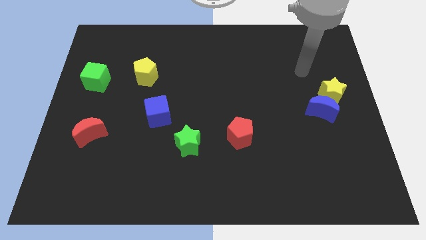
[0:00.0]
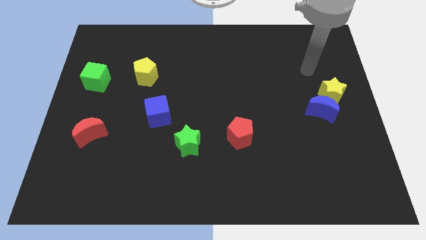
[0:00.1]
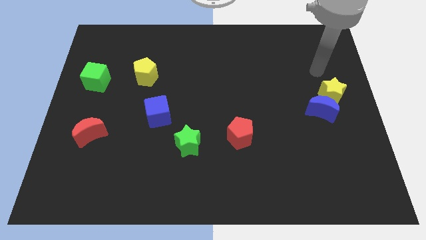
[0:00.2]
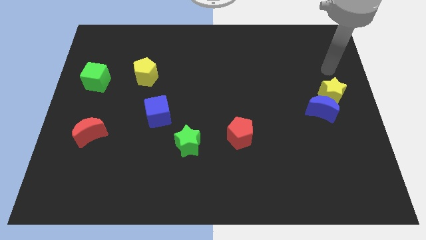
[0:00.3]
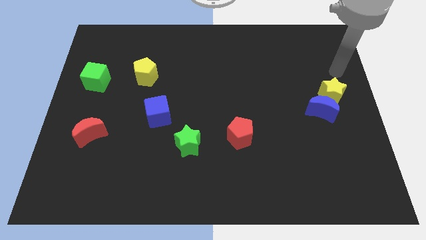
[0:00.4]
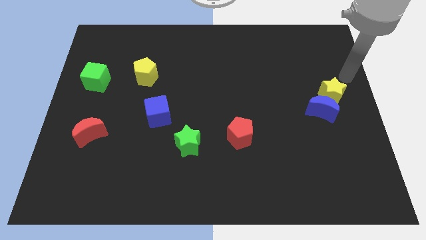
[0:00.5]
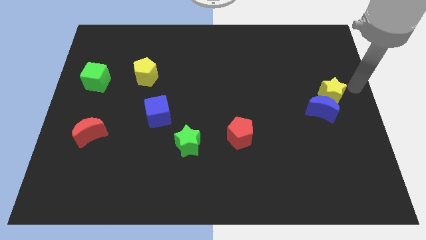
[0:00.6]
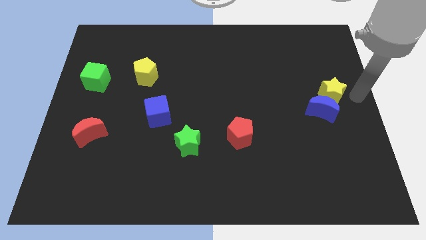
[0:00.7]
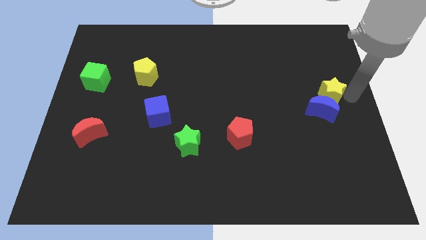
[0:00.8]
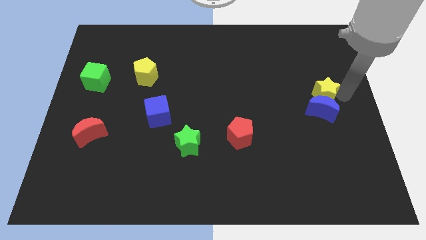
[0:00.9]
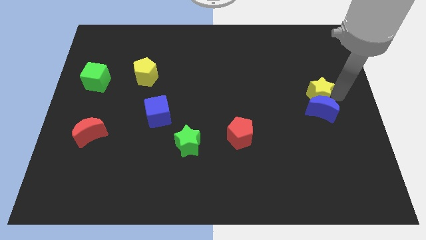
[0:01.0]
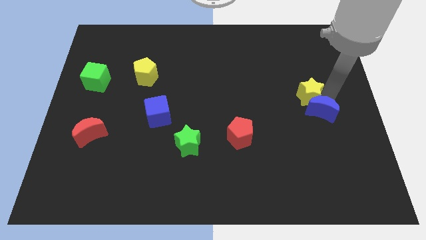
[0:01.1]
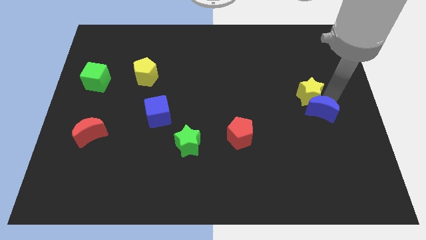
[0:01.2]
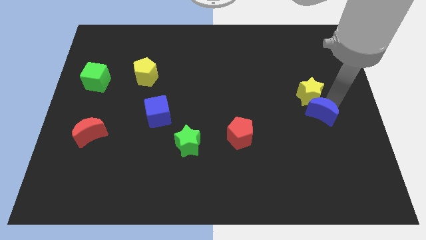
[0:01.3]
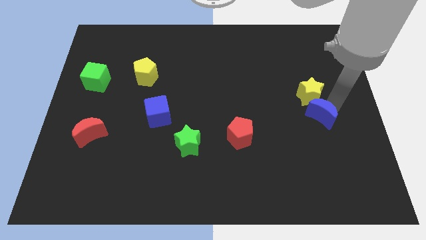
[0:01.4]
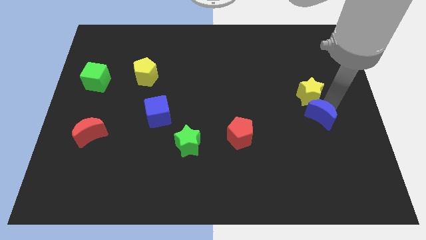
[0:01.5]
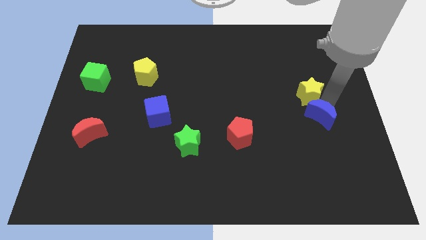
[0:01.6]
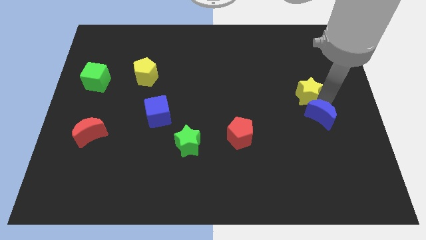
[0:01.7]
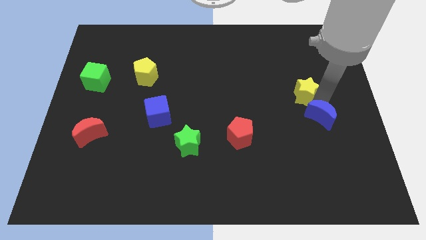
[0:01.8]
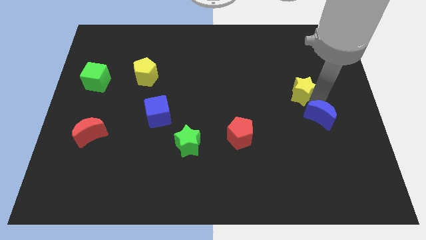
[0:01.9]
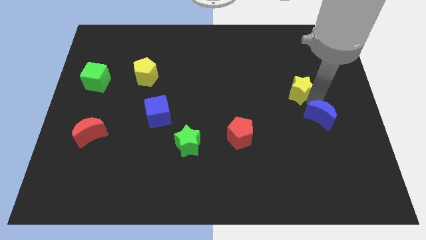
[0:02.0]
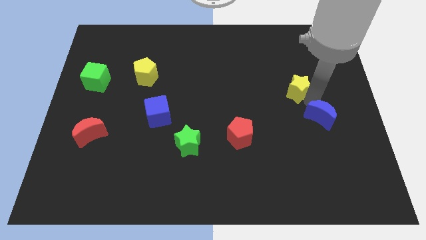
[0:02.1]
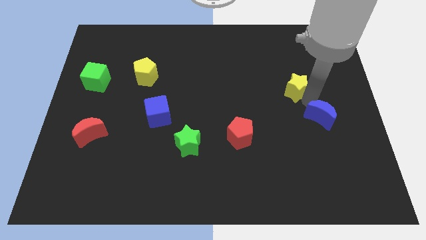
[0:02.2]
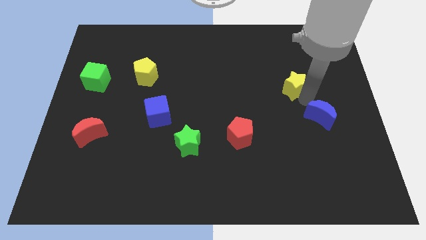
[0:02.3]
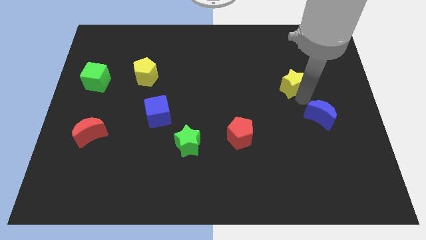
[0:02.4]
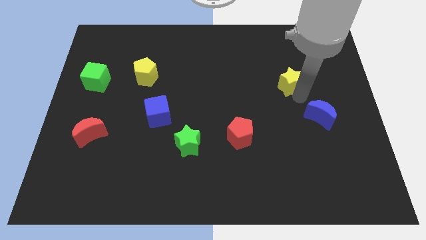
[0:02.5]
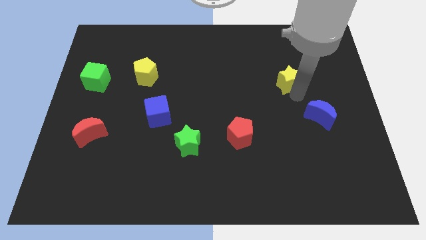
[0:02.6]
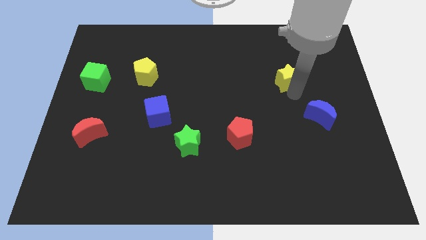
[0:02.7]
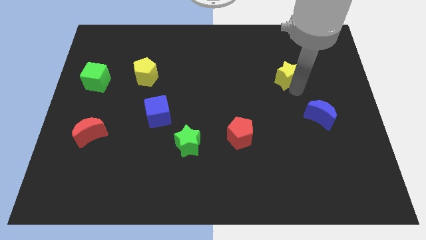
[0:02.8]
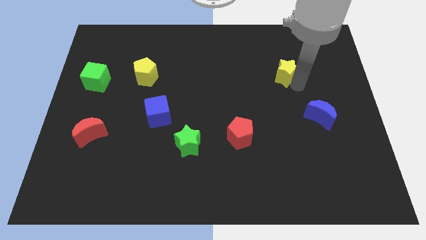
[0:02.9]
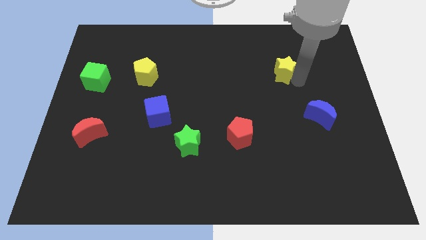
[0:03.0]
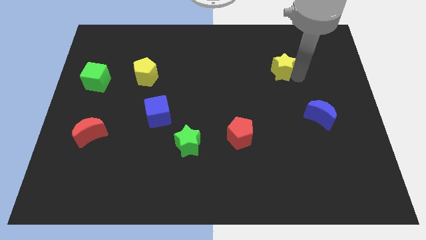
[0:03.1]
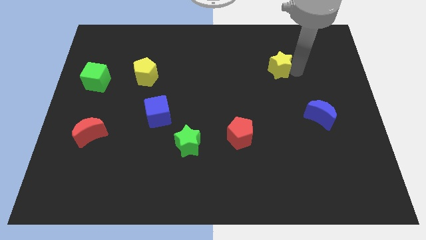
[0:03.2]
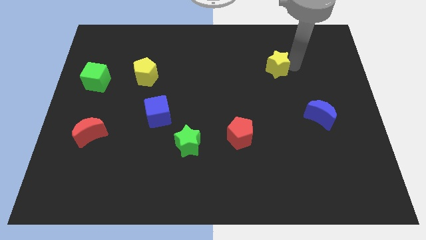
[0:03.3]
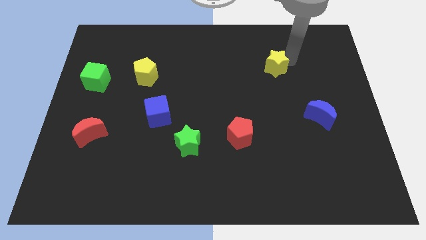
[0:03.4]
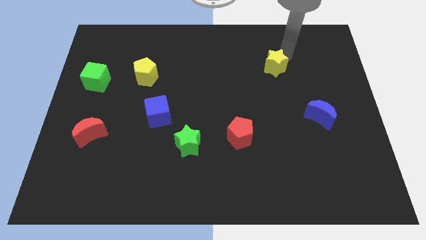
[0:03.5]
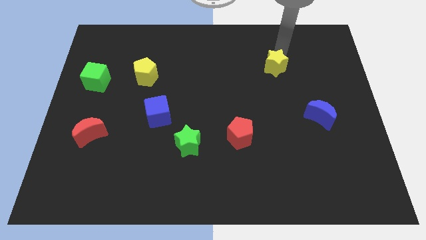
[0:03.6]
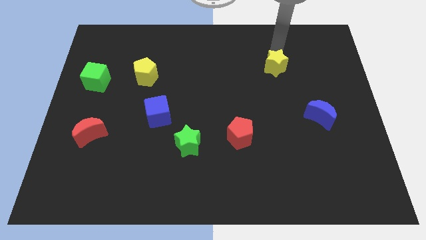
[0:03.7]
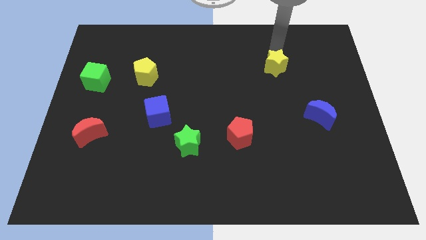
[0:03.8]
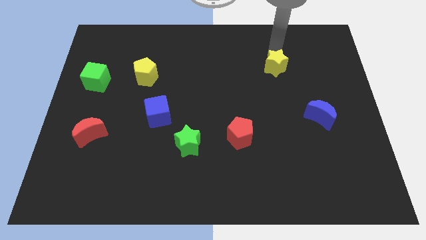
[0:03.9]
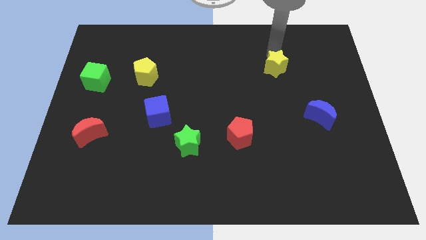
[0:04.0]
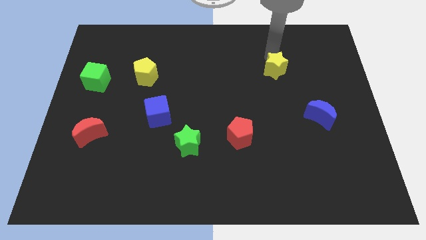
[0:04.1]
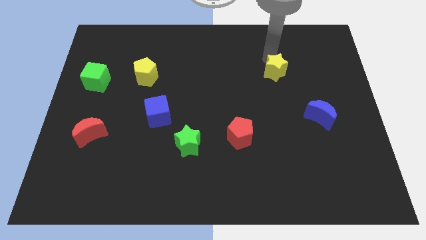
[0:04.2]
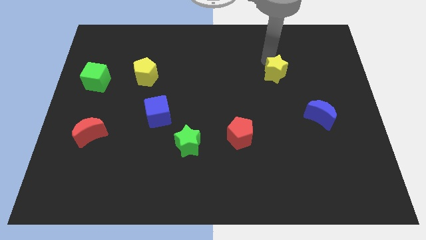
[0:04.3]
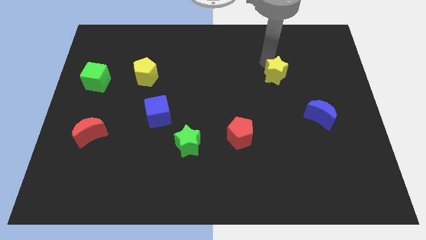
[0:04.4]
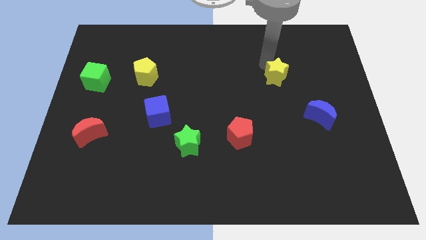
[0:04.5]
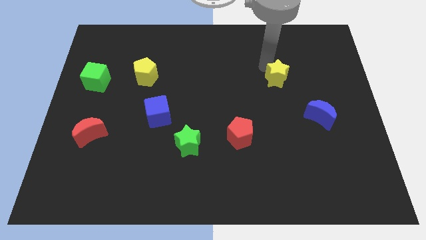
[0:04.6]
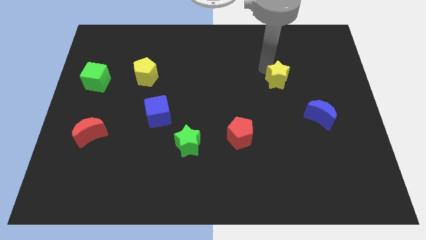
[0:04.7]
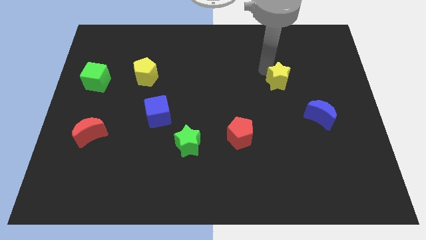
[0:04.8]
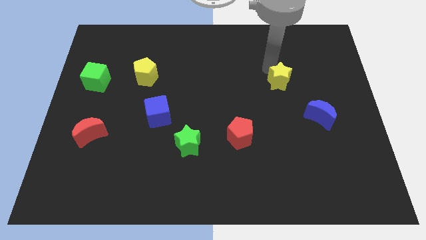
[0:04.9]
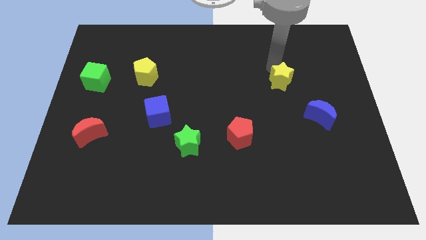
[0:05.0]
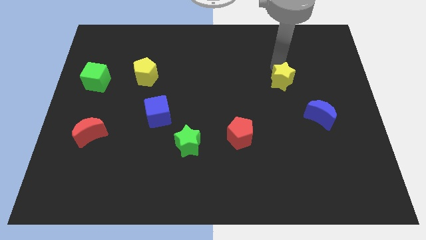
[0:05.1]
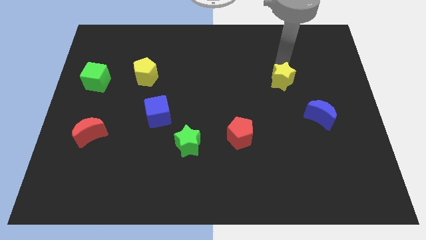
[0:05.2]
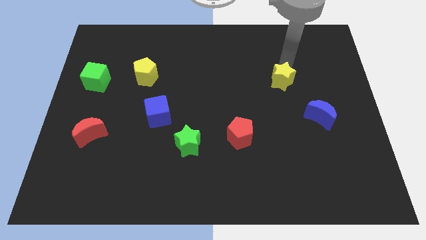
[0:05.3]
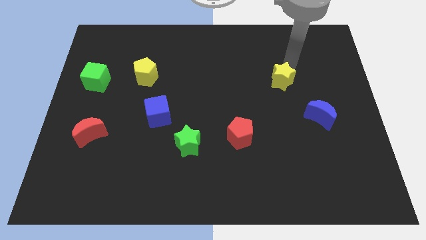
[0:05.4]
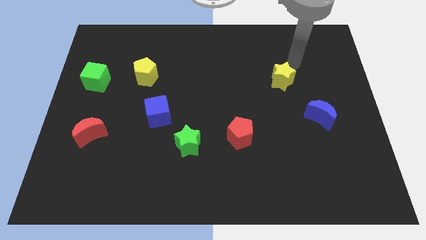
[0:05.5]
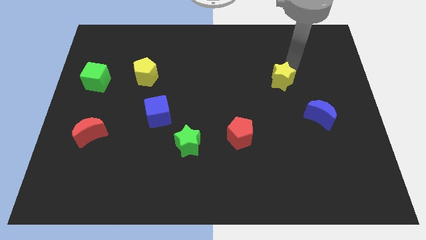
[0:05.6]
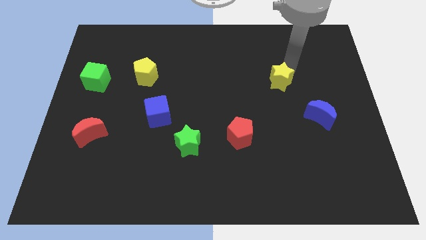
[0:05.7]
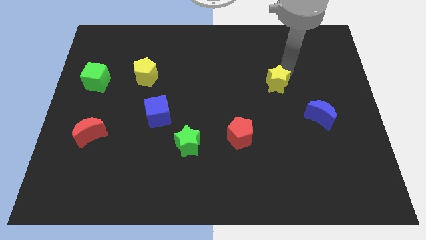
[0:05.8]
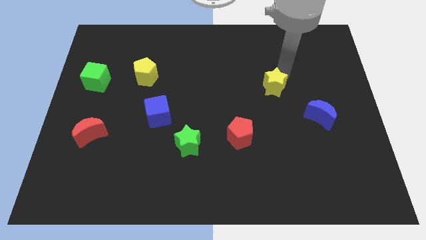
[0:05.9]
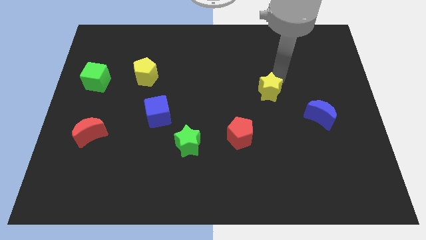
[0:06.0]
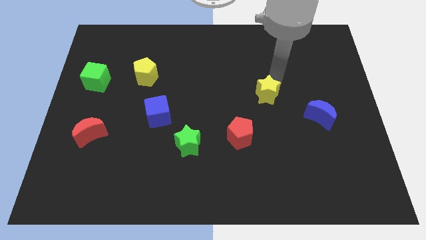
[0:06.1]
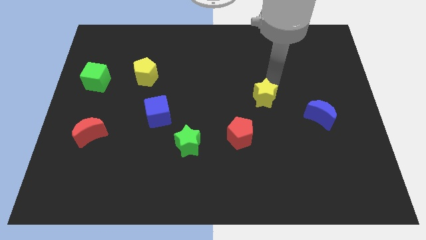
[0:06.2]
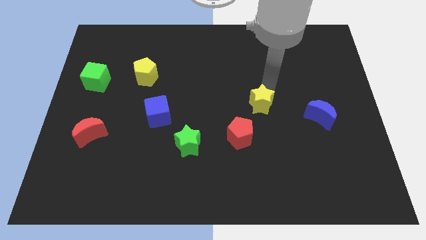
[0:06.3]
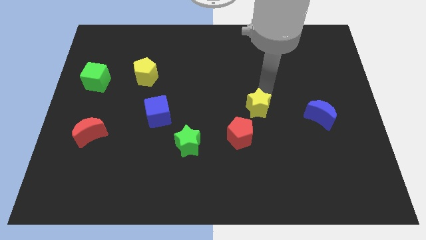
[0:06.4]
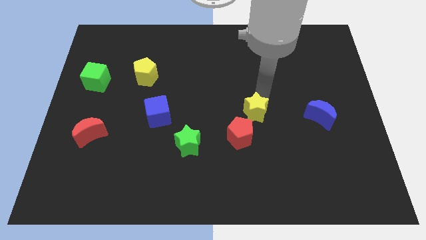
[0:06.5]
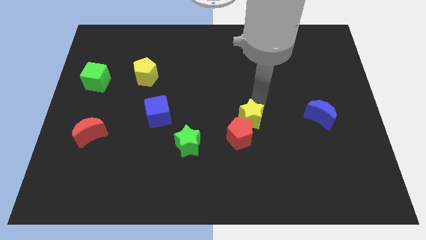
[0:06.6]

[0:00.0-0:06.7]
push the yellow star towards the red pentagon
